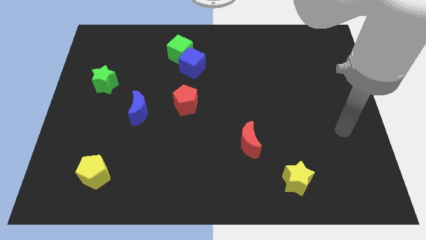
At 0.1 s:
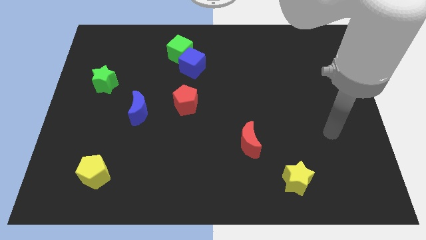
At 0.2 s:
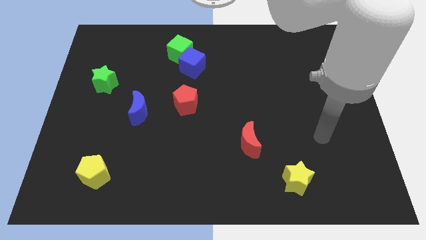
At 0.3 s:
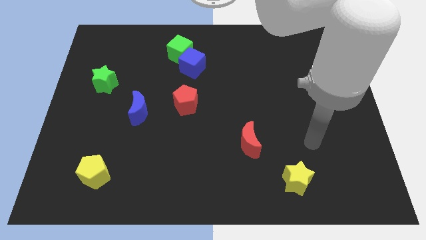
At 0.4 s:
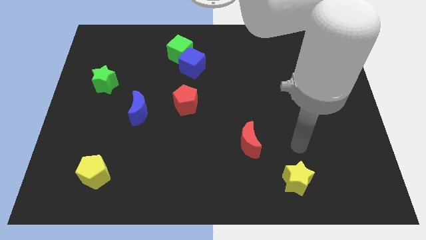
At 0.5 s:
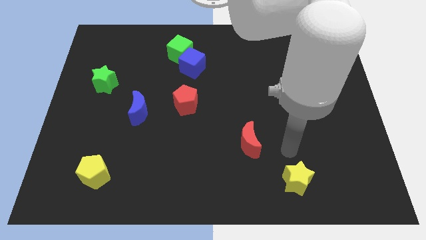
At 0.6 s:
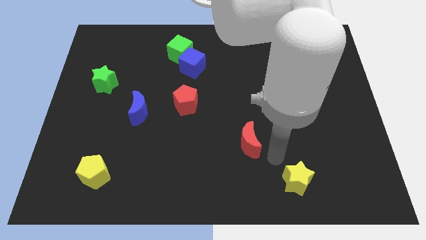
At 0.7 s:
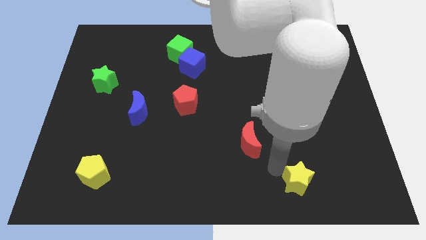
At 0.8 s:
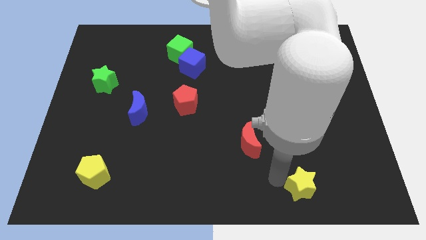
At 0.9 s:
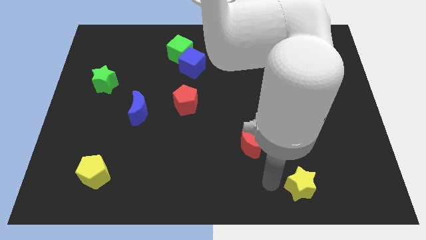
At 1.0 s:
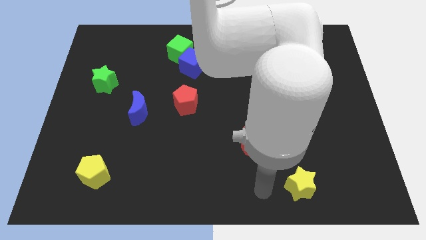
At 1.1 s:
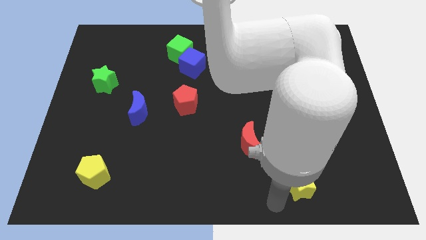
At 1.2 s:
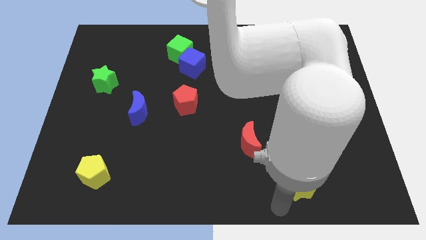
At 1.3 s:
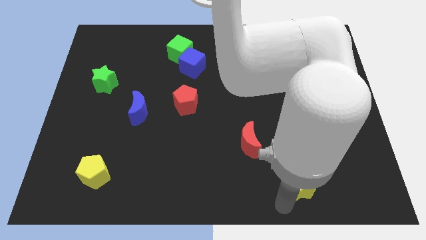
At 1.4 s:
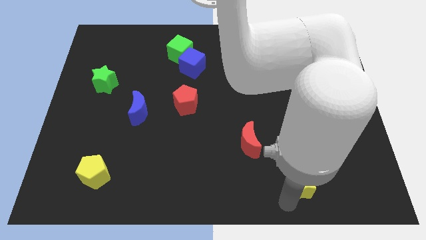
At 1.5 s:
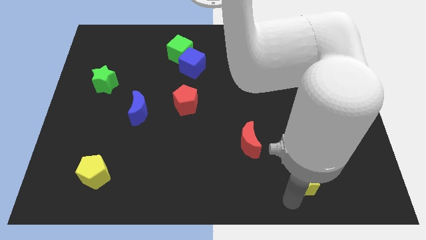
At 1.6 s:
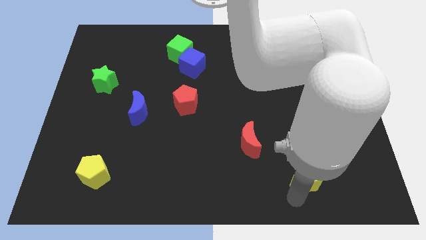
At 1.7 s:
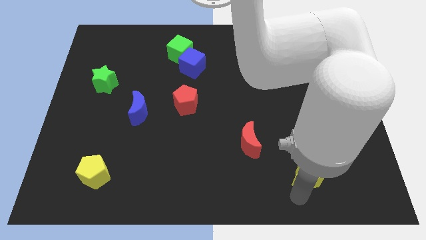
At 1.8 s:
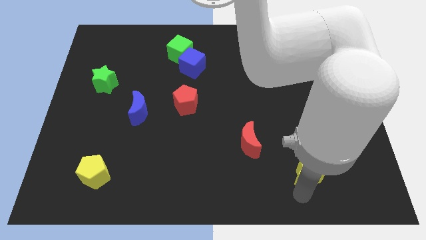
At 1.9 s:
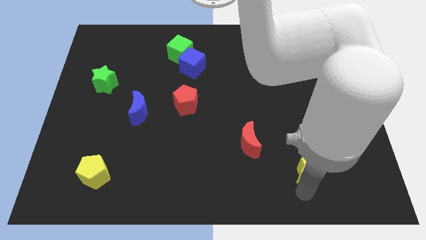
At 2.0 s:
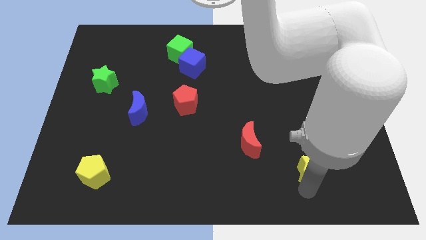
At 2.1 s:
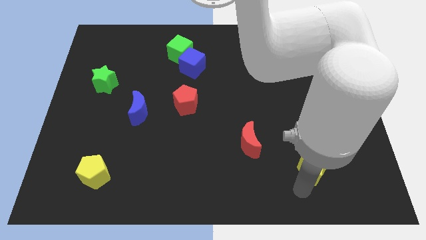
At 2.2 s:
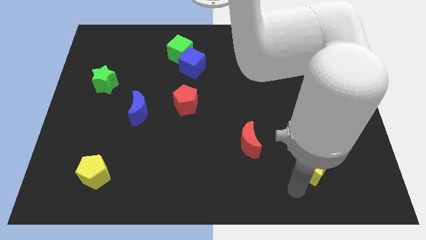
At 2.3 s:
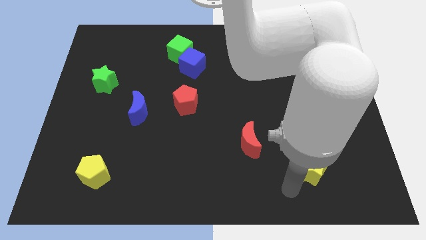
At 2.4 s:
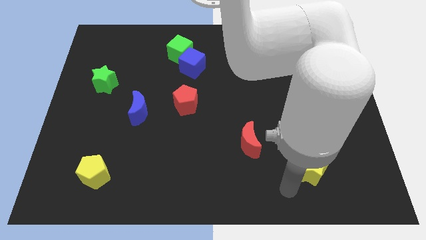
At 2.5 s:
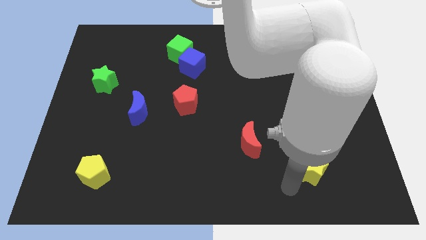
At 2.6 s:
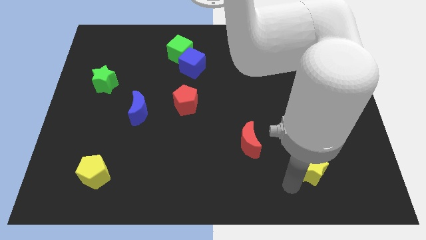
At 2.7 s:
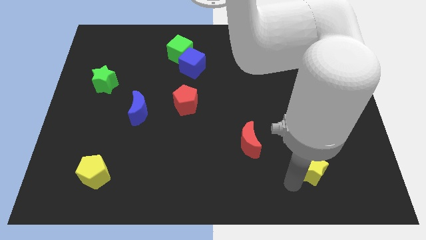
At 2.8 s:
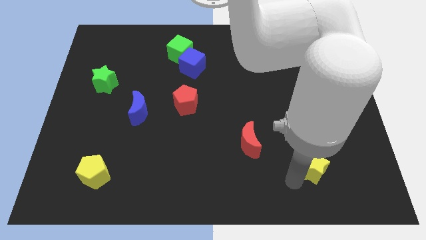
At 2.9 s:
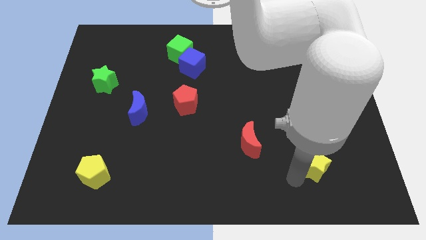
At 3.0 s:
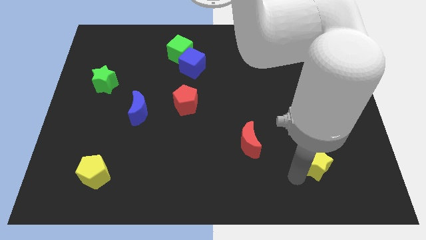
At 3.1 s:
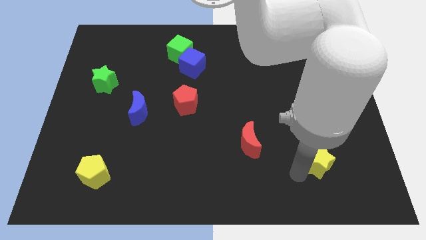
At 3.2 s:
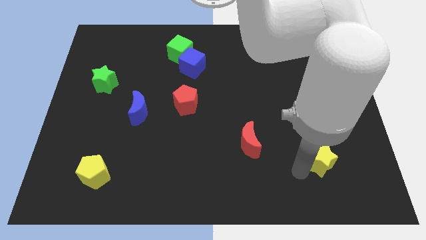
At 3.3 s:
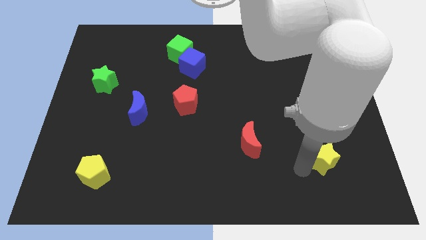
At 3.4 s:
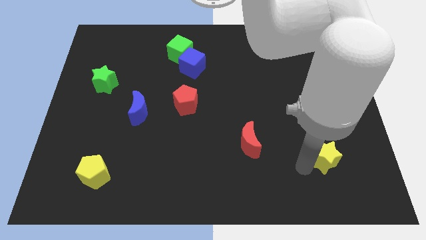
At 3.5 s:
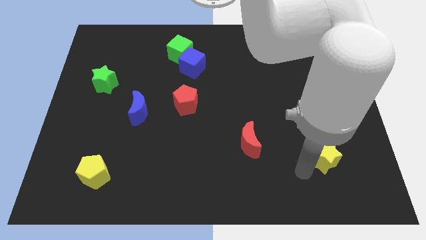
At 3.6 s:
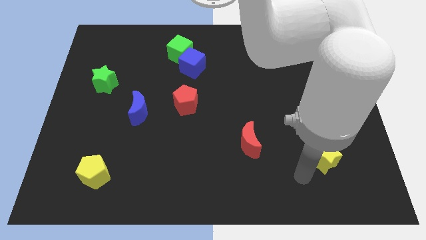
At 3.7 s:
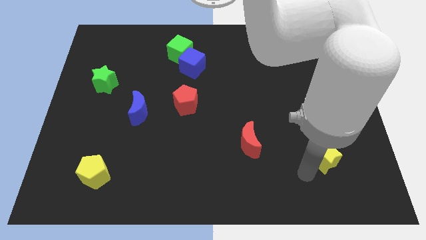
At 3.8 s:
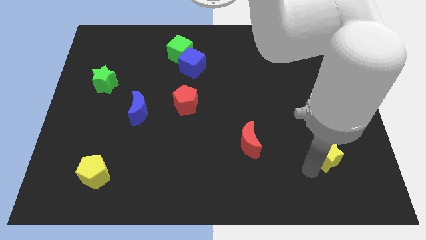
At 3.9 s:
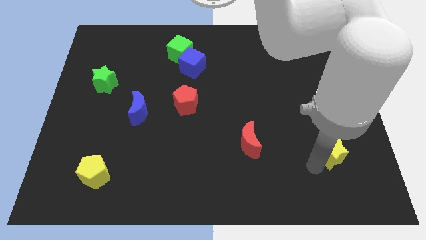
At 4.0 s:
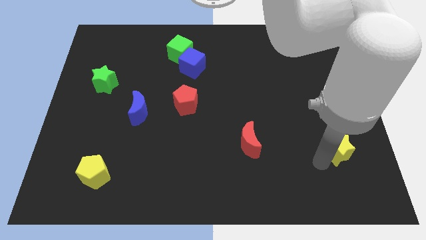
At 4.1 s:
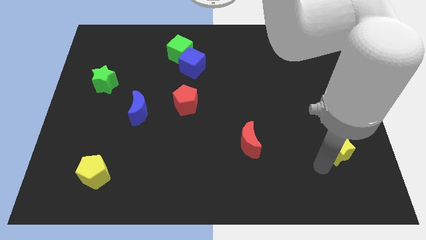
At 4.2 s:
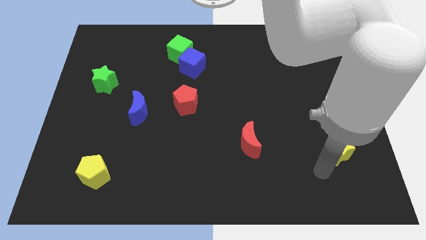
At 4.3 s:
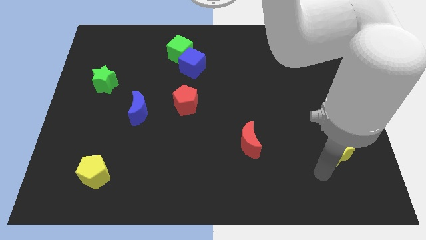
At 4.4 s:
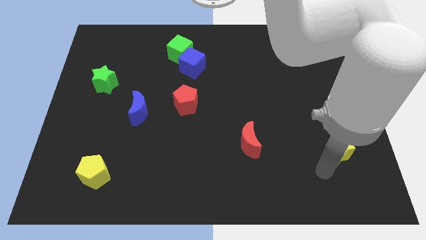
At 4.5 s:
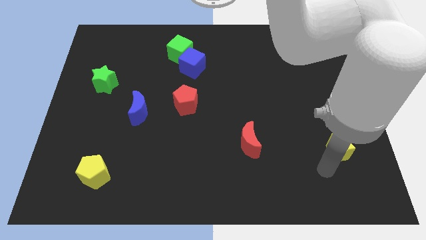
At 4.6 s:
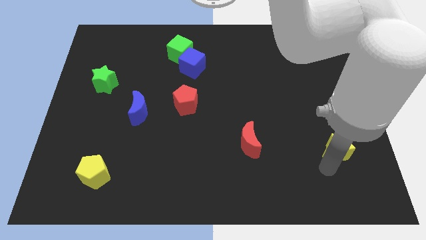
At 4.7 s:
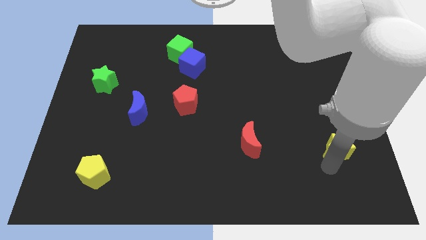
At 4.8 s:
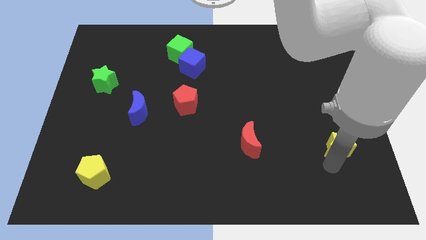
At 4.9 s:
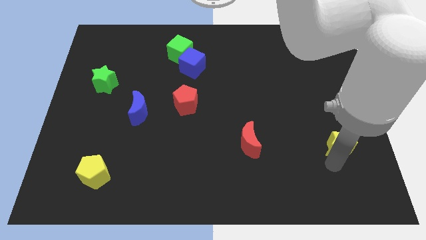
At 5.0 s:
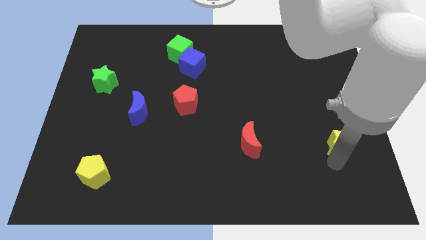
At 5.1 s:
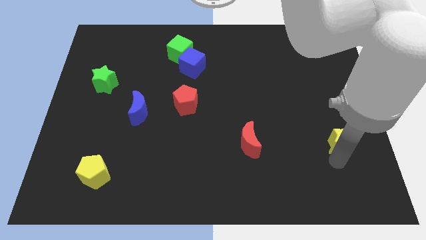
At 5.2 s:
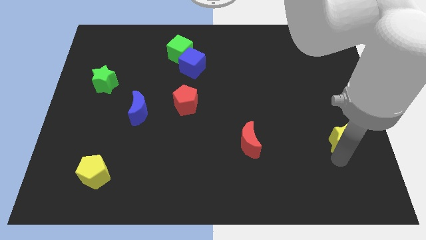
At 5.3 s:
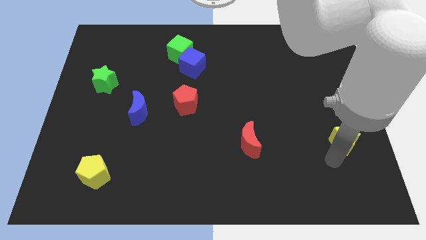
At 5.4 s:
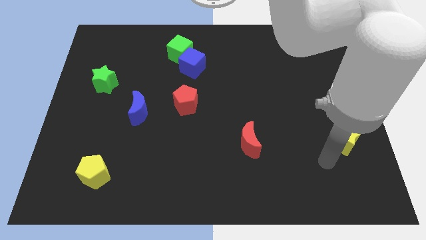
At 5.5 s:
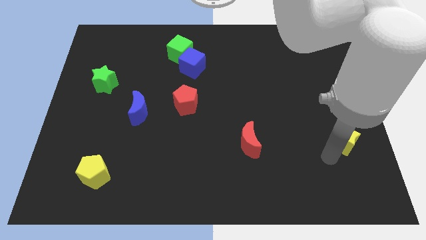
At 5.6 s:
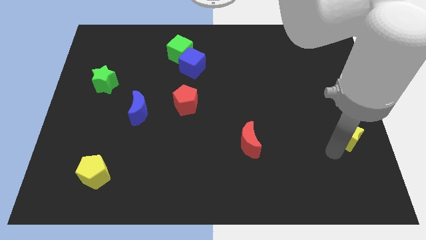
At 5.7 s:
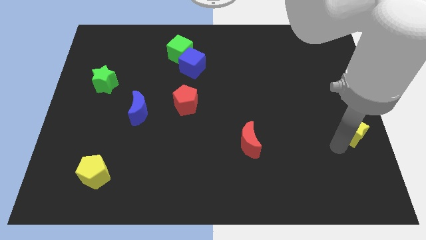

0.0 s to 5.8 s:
slide the yellow star to the right side of the board
